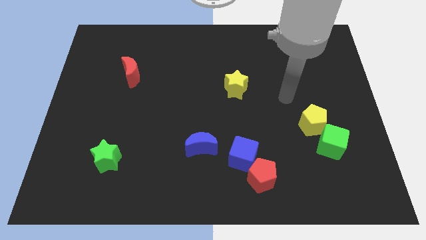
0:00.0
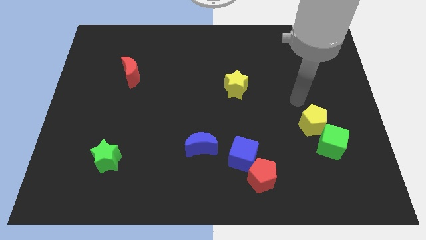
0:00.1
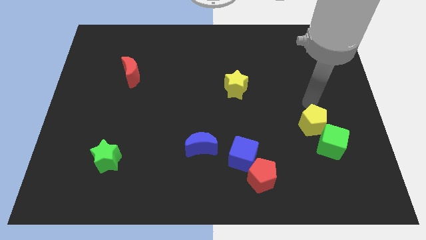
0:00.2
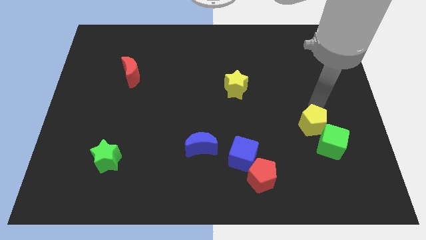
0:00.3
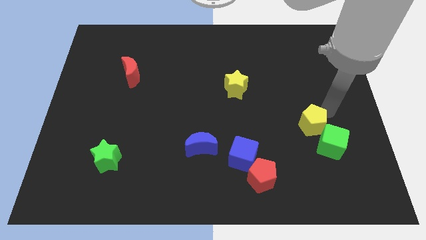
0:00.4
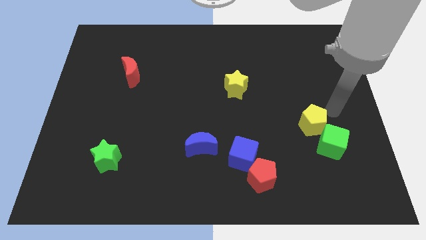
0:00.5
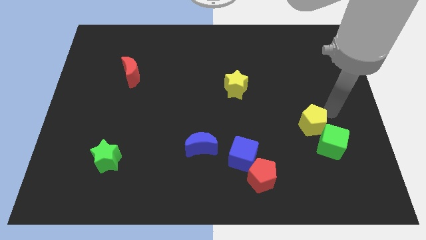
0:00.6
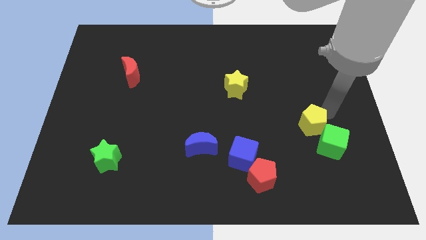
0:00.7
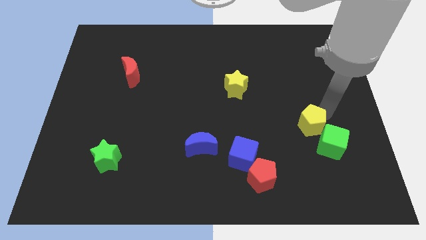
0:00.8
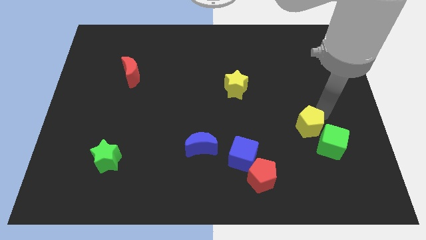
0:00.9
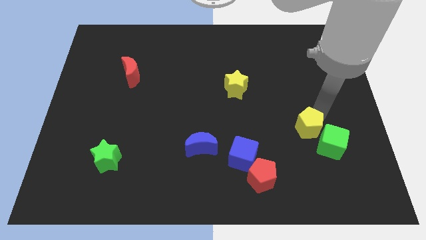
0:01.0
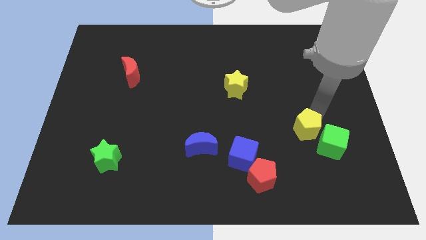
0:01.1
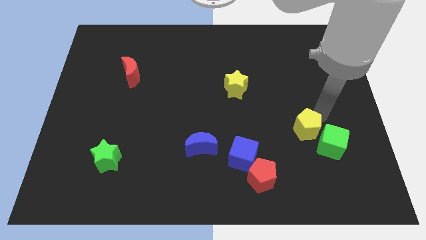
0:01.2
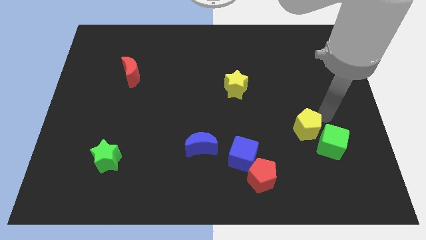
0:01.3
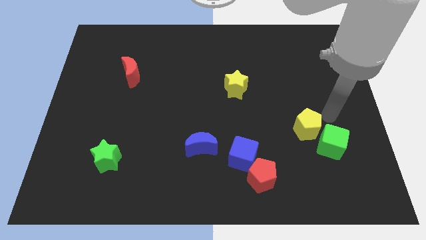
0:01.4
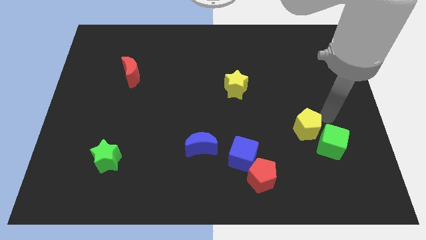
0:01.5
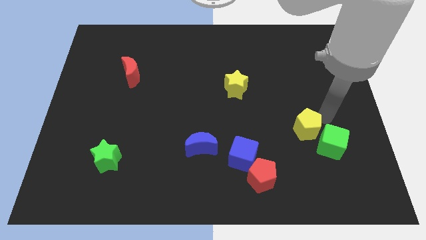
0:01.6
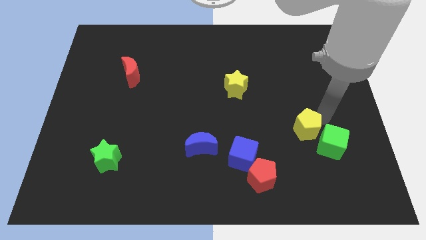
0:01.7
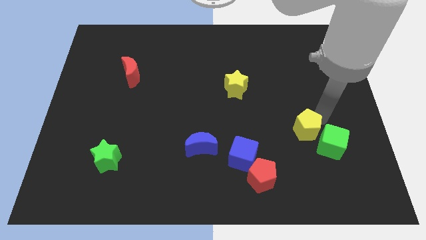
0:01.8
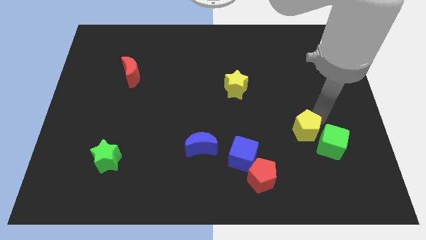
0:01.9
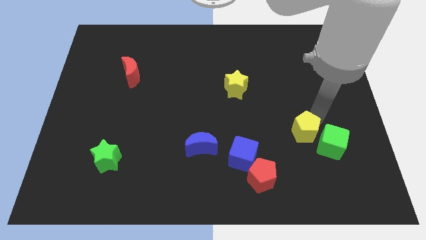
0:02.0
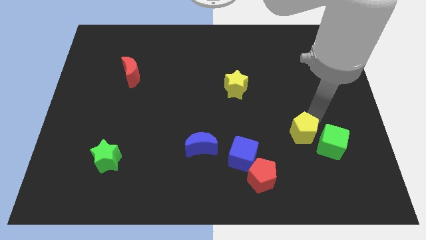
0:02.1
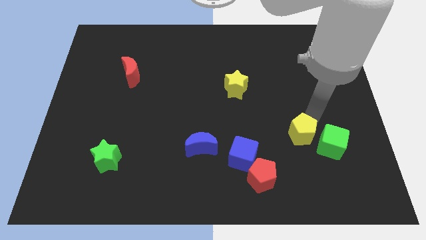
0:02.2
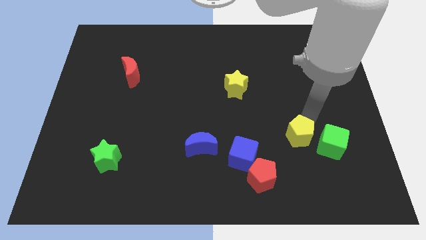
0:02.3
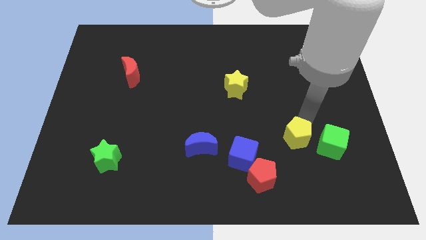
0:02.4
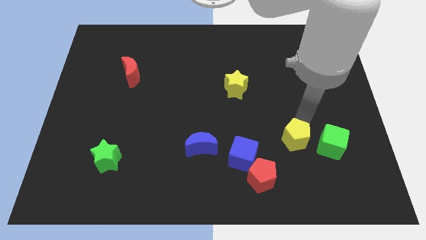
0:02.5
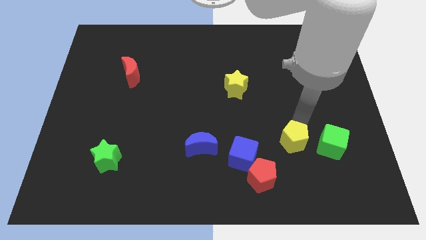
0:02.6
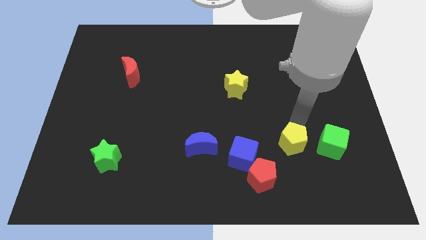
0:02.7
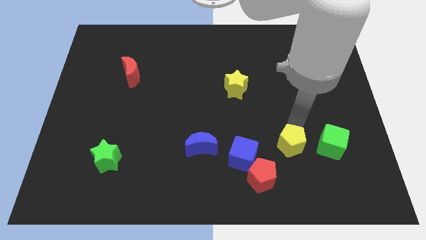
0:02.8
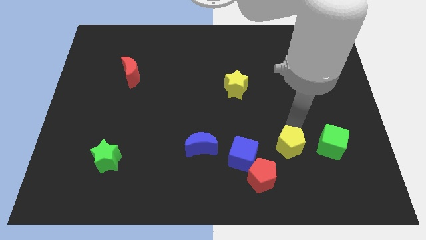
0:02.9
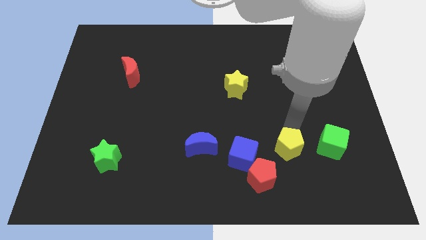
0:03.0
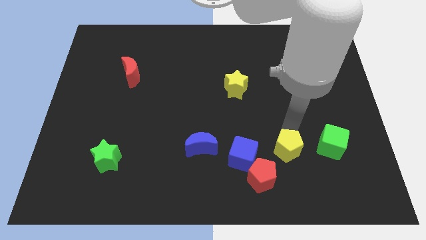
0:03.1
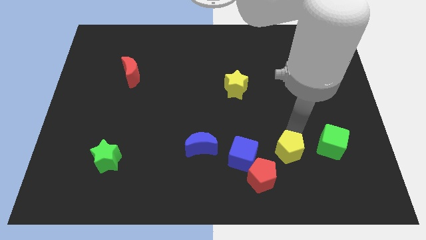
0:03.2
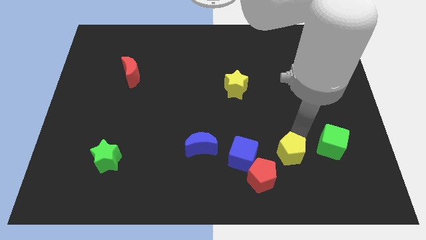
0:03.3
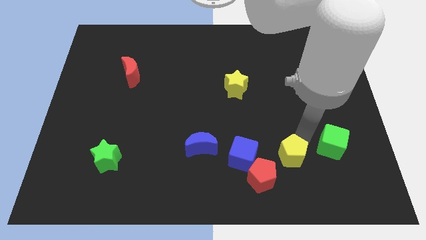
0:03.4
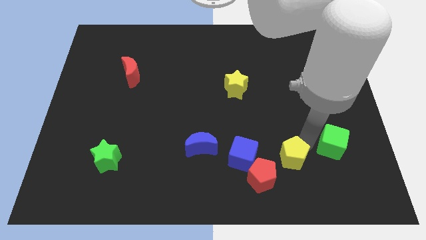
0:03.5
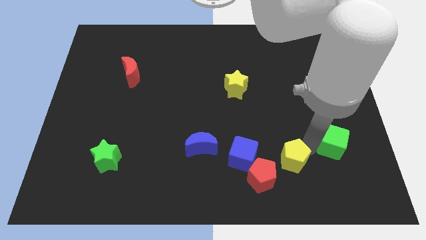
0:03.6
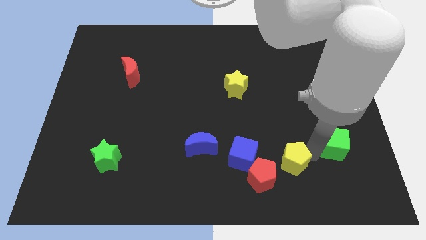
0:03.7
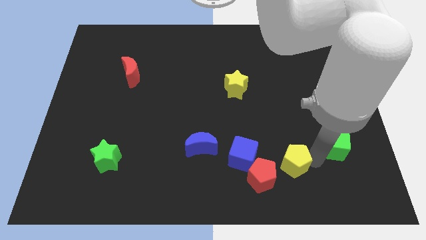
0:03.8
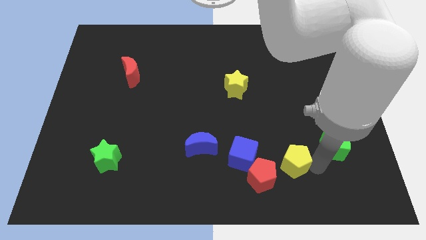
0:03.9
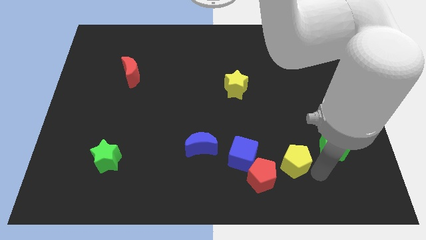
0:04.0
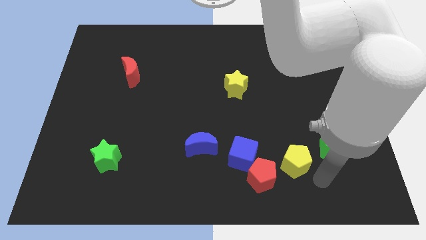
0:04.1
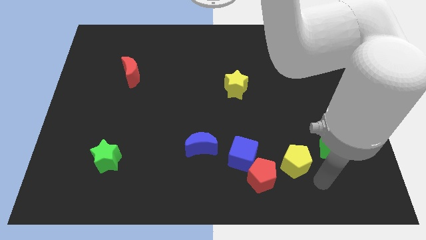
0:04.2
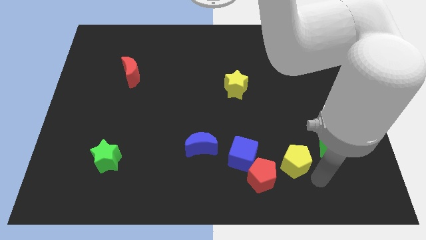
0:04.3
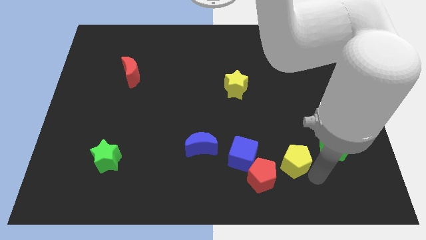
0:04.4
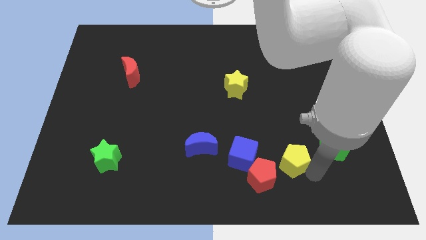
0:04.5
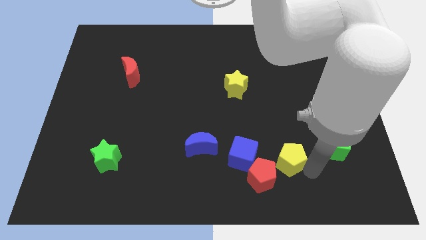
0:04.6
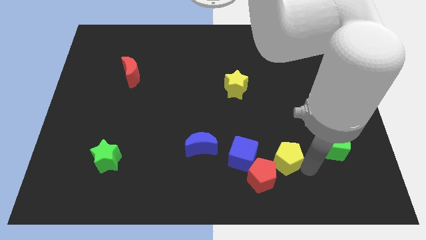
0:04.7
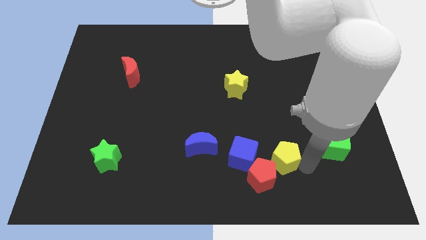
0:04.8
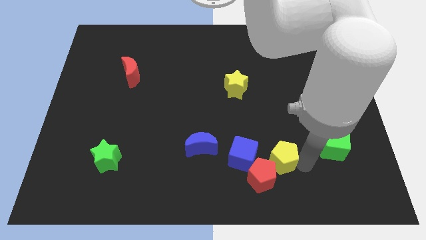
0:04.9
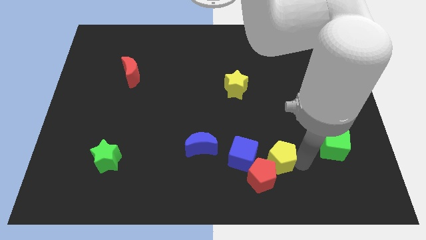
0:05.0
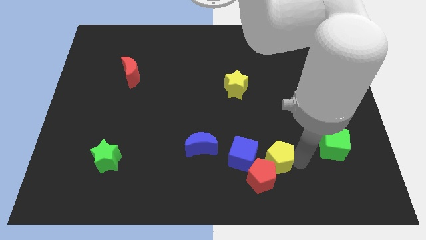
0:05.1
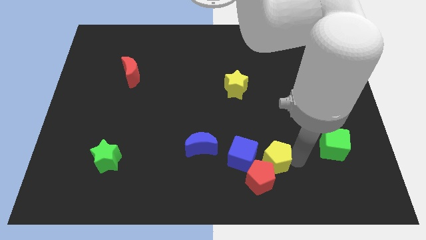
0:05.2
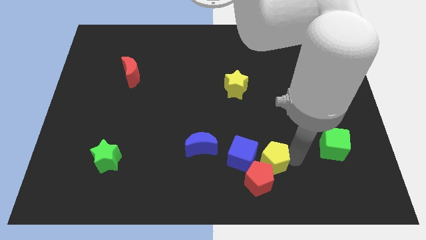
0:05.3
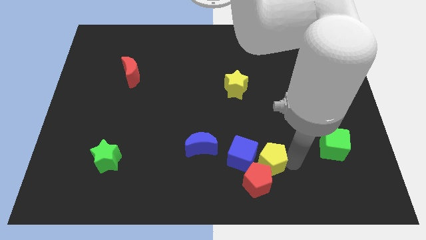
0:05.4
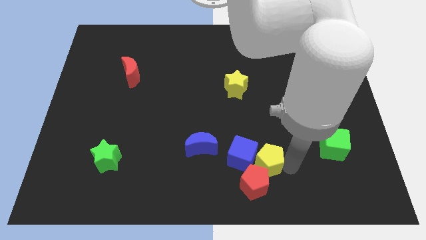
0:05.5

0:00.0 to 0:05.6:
put the yellow pentagon close to the blue cube

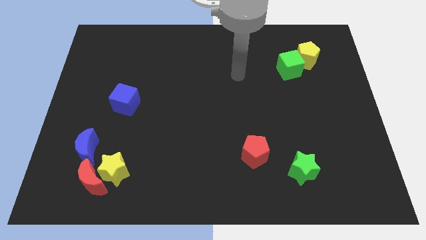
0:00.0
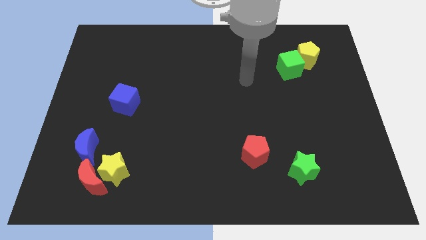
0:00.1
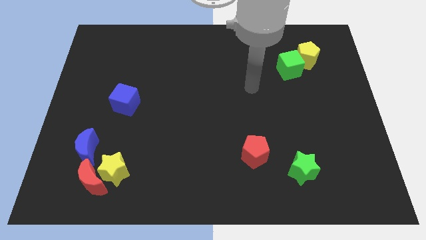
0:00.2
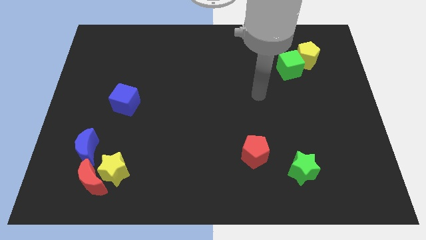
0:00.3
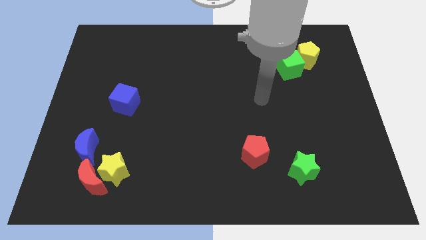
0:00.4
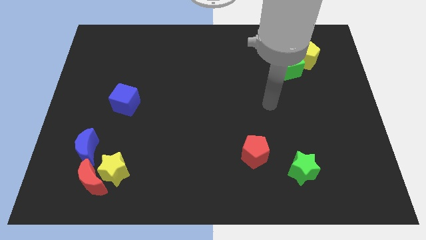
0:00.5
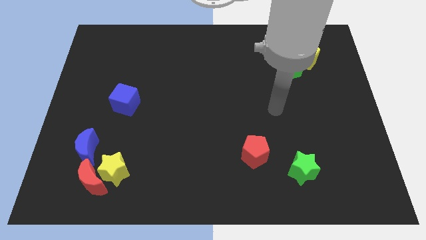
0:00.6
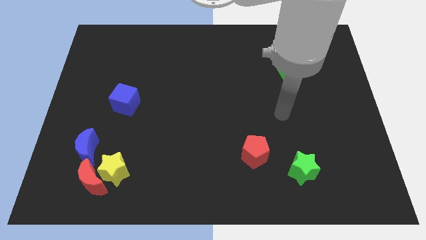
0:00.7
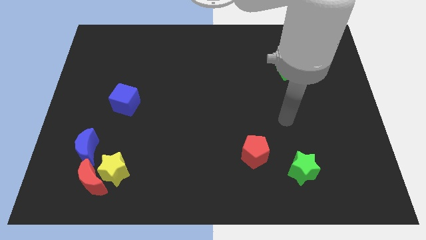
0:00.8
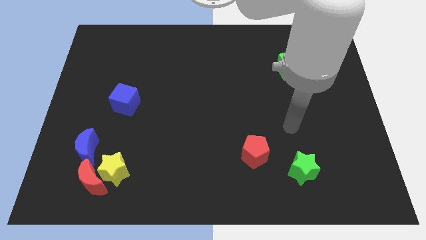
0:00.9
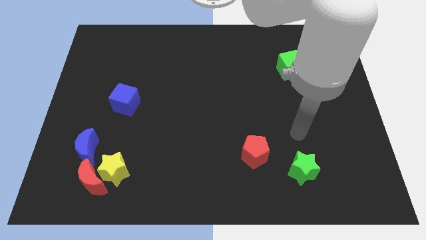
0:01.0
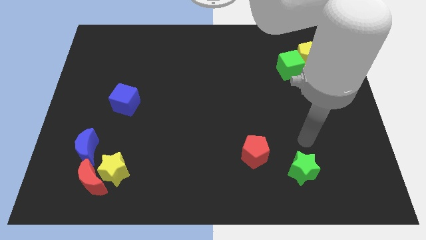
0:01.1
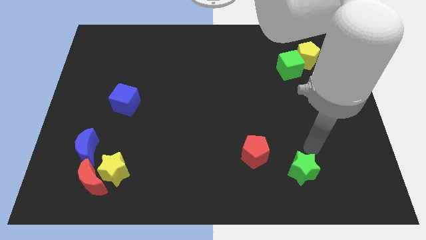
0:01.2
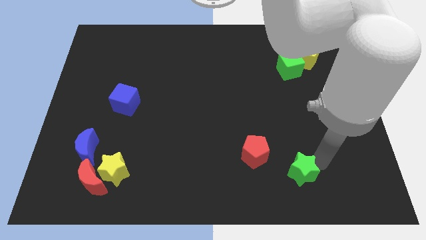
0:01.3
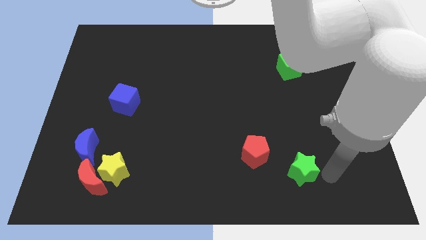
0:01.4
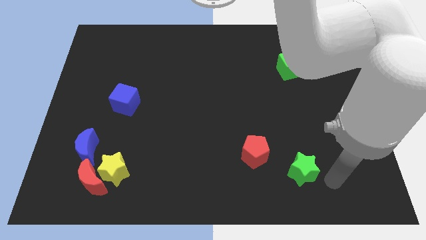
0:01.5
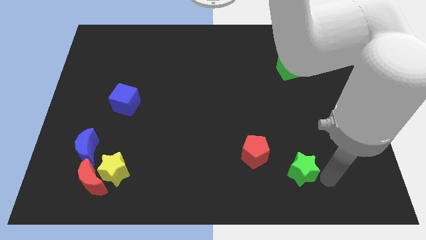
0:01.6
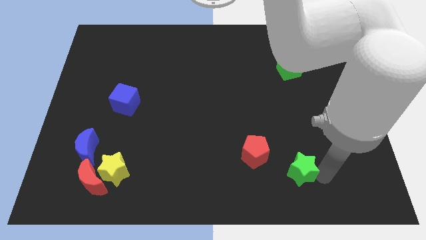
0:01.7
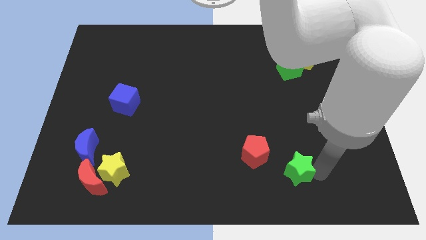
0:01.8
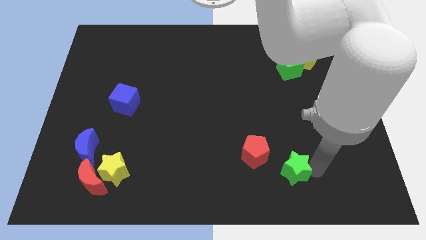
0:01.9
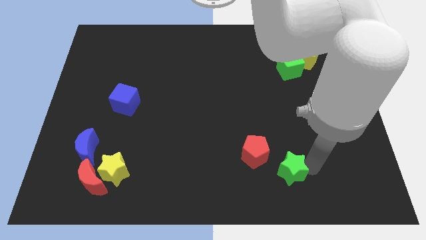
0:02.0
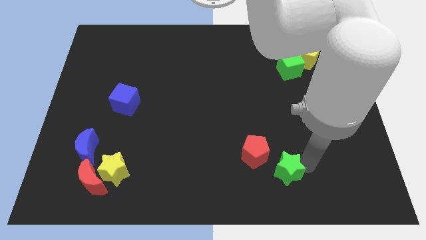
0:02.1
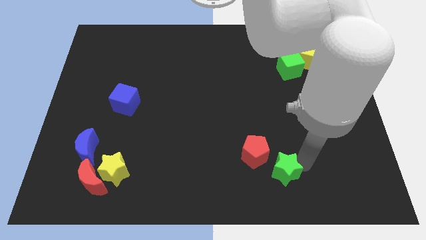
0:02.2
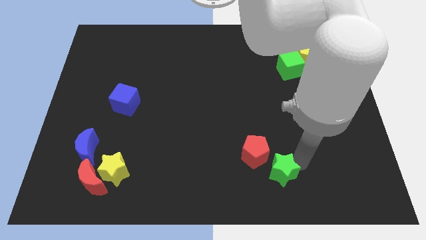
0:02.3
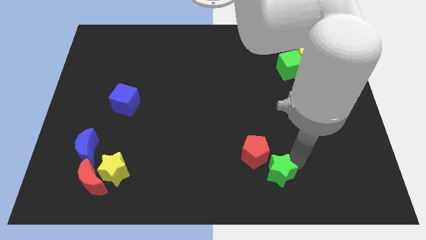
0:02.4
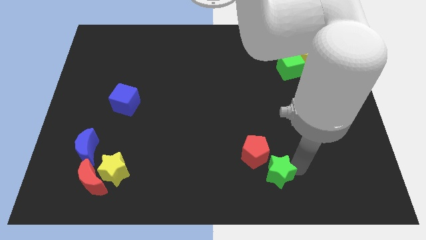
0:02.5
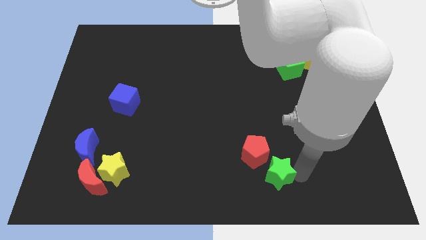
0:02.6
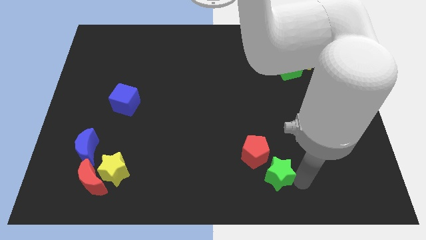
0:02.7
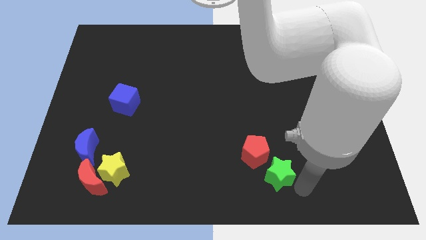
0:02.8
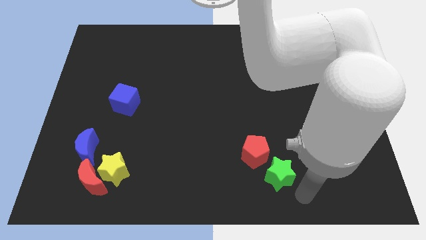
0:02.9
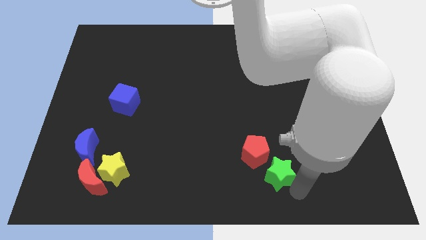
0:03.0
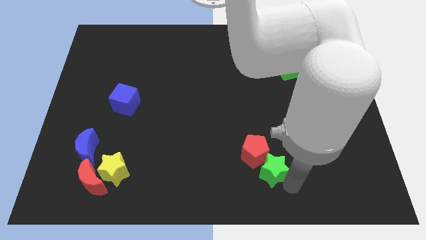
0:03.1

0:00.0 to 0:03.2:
slide the green star towards the red pentagon
